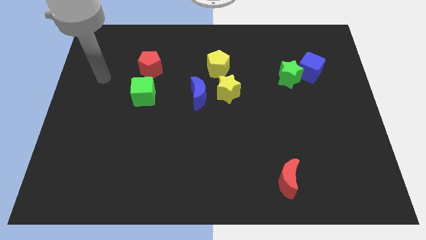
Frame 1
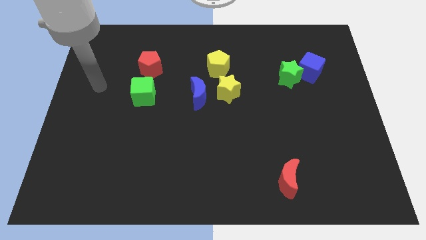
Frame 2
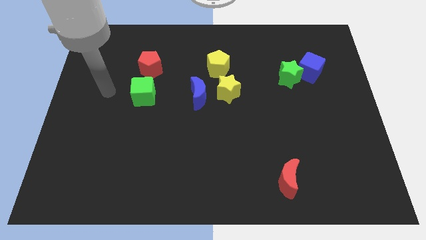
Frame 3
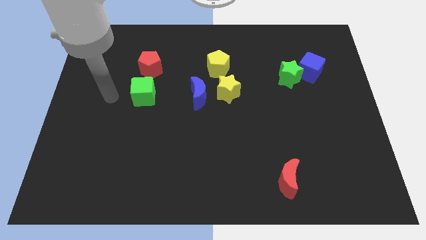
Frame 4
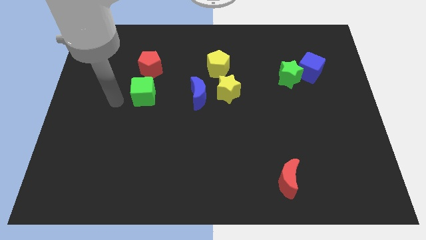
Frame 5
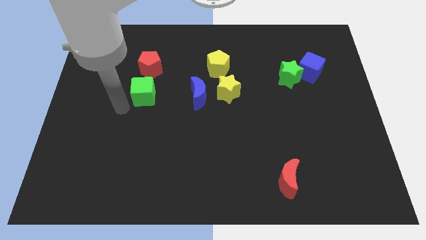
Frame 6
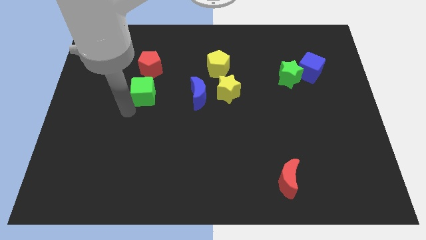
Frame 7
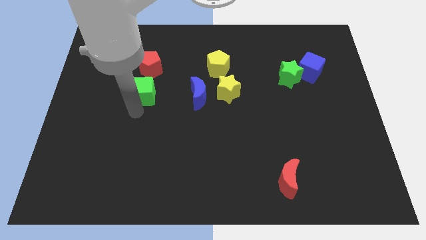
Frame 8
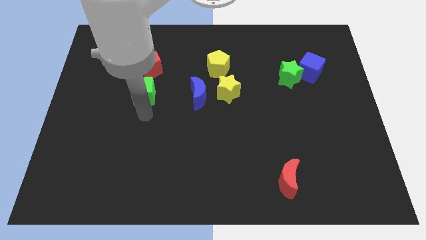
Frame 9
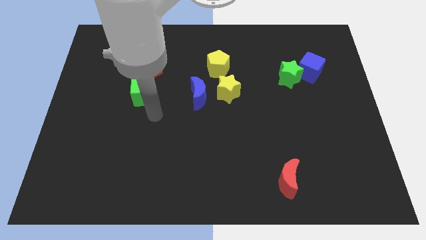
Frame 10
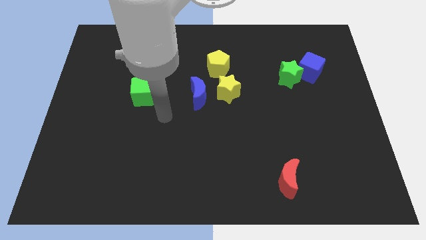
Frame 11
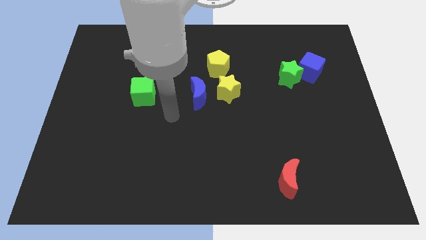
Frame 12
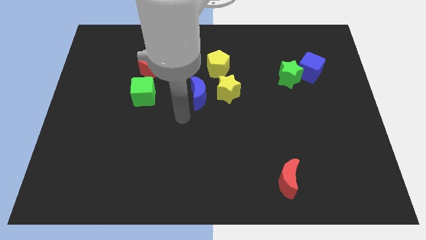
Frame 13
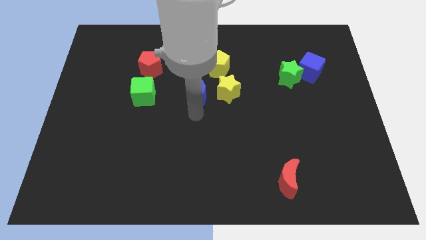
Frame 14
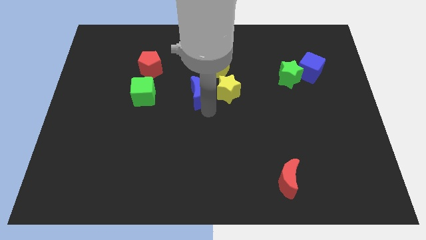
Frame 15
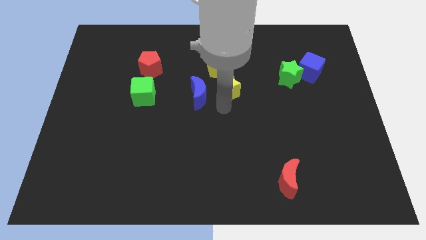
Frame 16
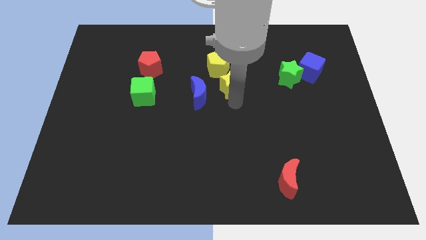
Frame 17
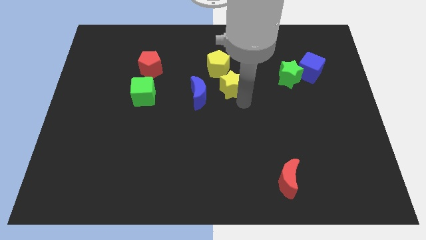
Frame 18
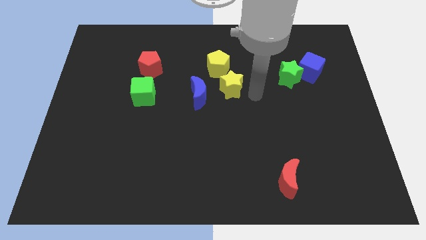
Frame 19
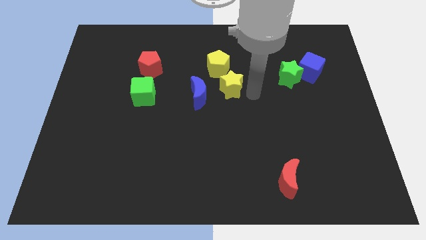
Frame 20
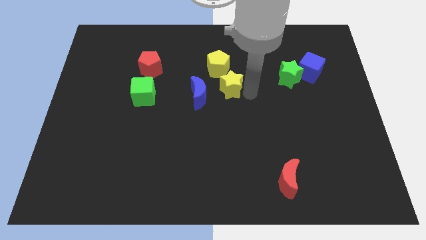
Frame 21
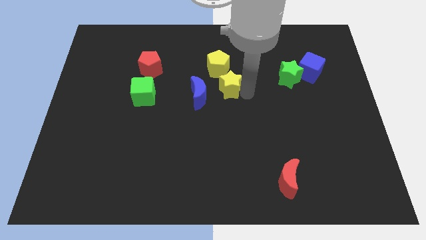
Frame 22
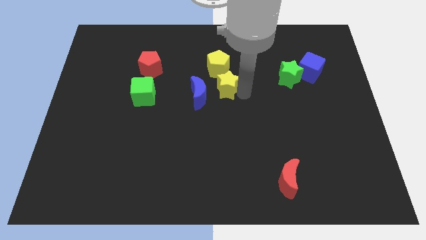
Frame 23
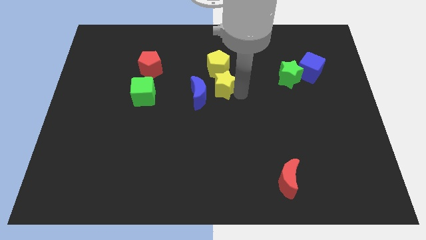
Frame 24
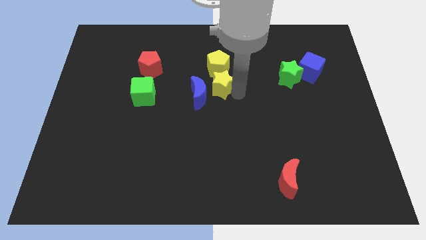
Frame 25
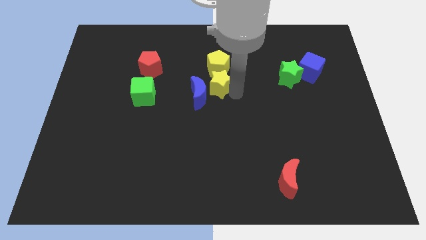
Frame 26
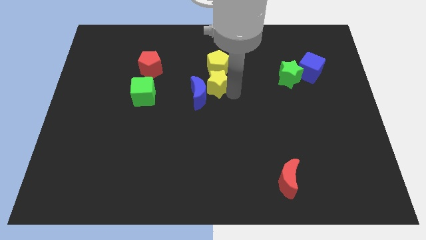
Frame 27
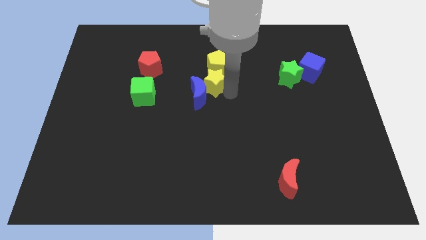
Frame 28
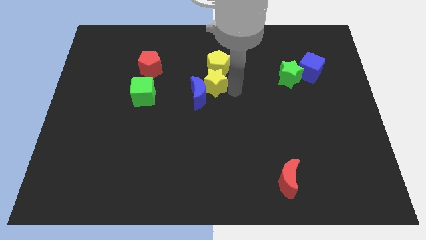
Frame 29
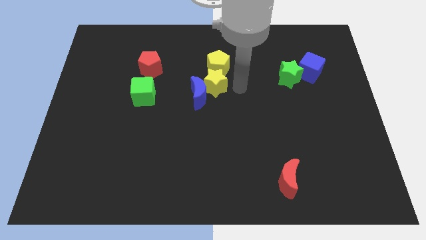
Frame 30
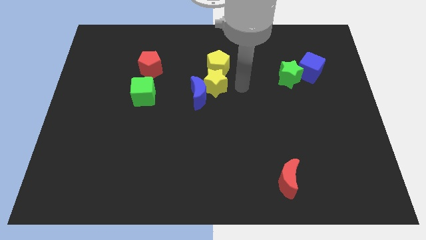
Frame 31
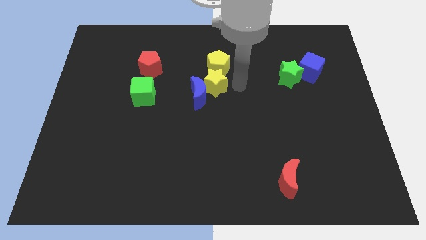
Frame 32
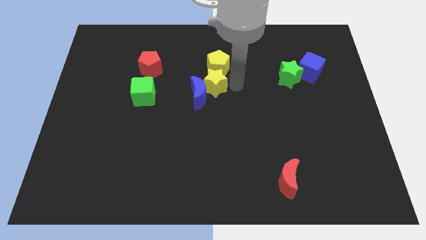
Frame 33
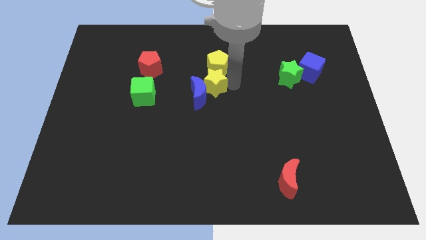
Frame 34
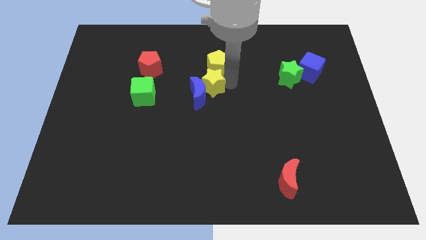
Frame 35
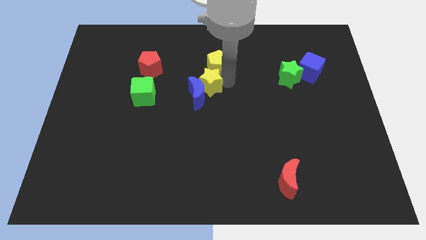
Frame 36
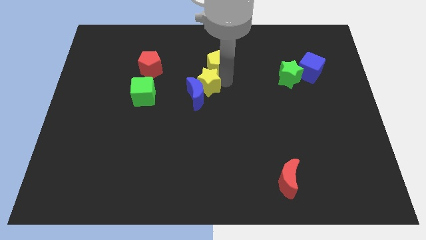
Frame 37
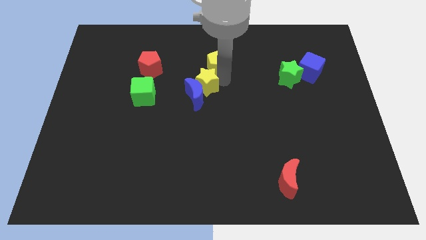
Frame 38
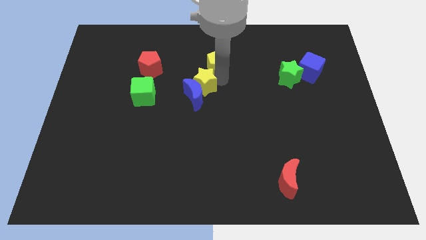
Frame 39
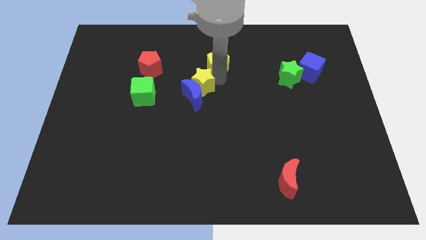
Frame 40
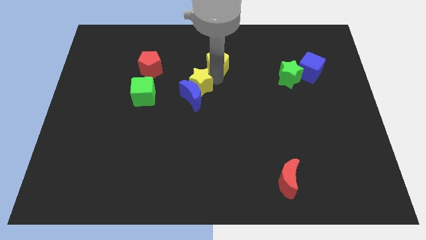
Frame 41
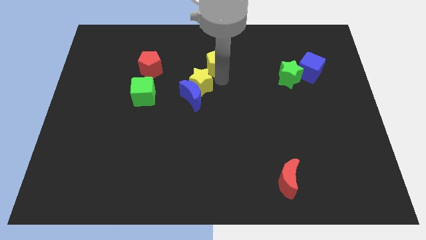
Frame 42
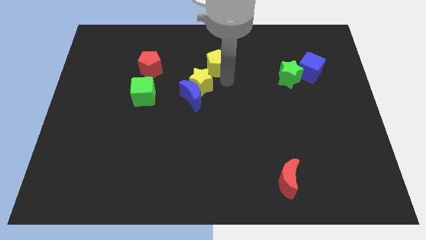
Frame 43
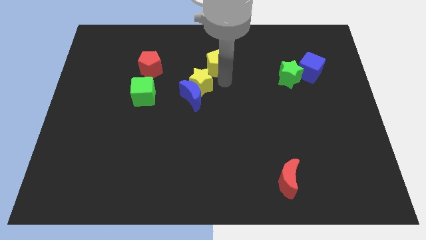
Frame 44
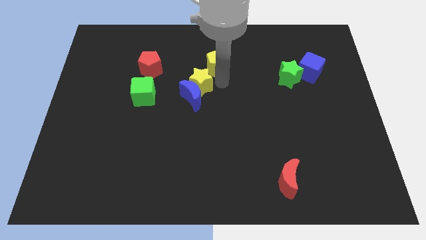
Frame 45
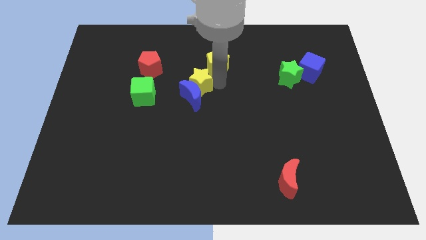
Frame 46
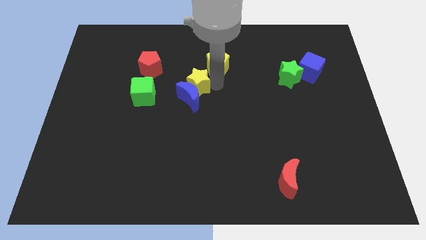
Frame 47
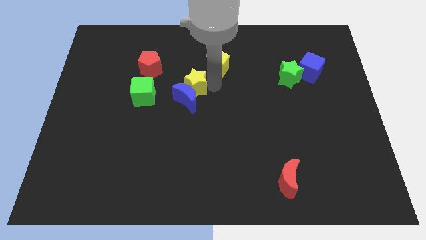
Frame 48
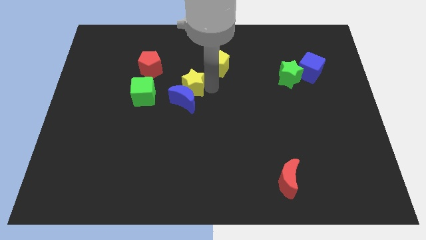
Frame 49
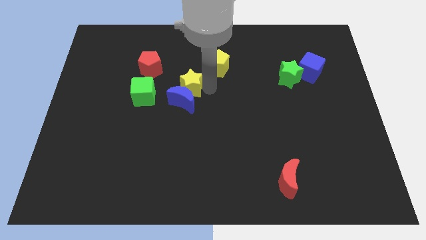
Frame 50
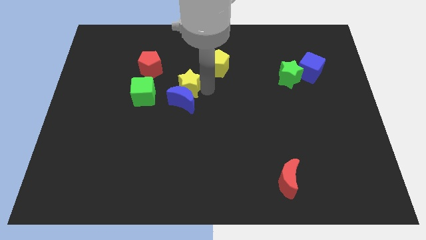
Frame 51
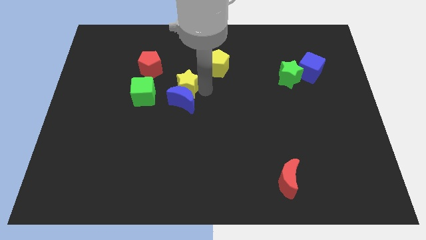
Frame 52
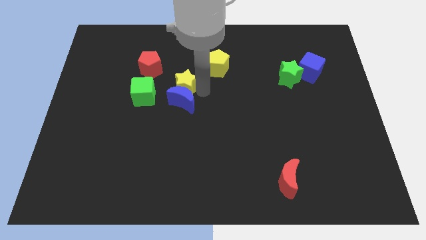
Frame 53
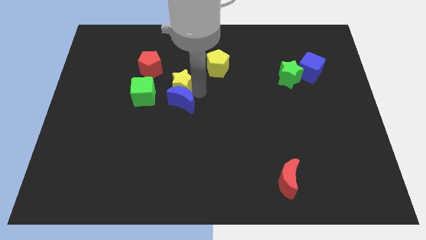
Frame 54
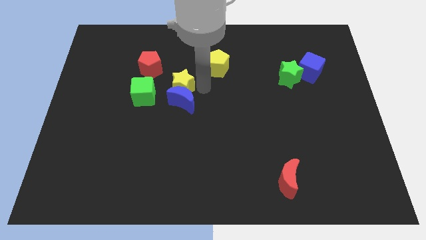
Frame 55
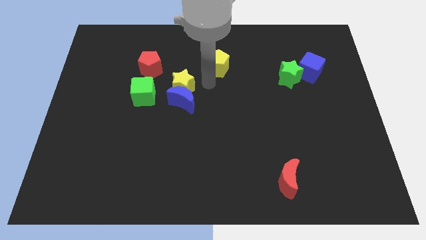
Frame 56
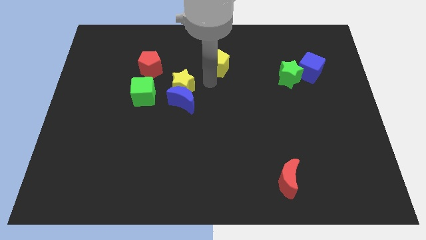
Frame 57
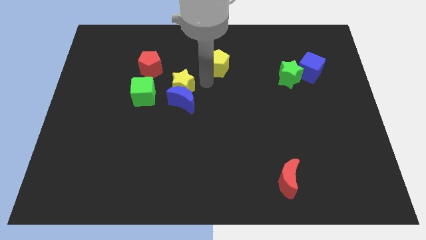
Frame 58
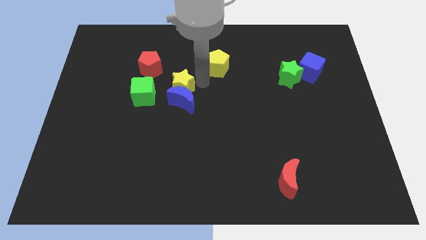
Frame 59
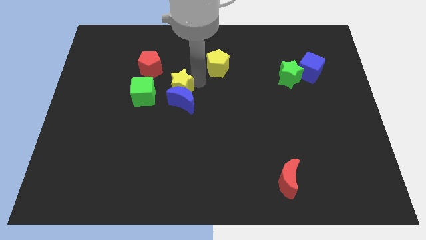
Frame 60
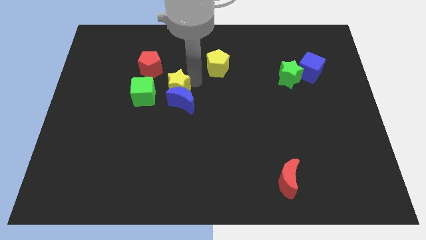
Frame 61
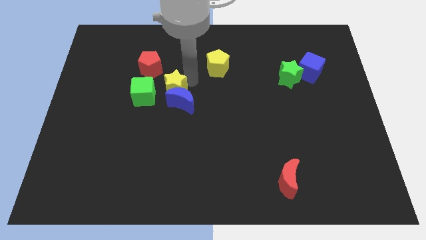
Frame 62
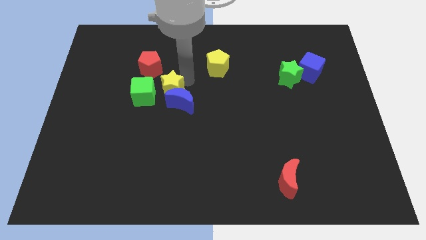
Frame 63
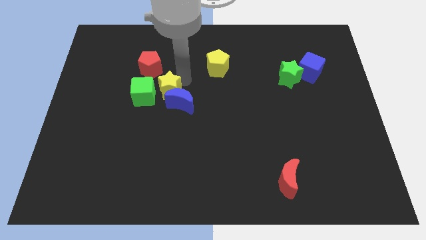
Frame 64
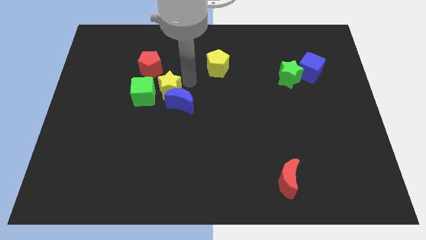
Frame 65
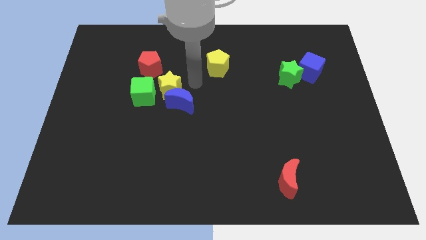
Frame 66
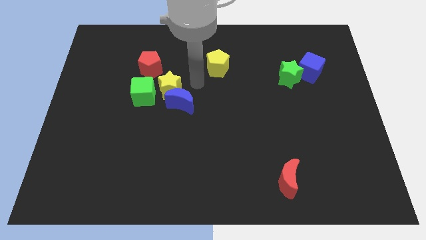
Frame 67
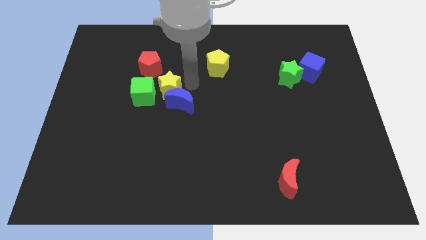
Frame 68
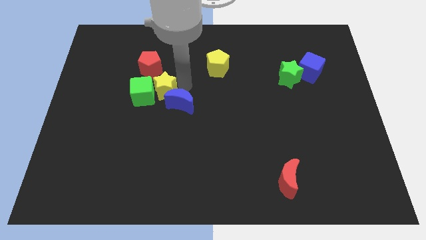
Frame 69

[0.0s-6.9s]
move the yellow star towards the green cube

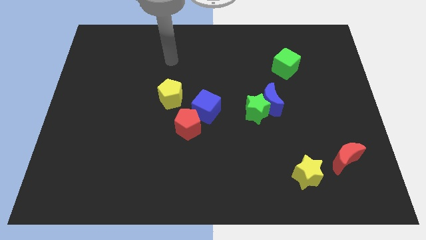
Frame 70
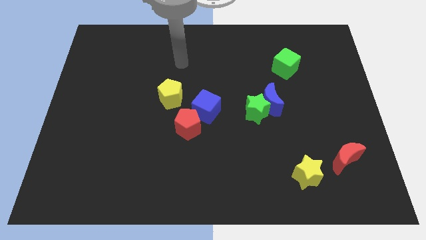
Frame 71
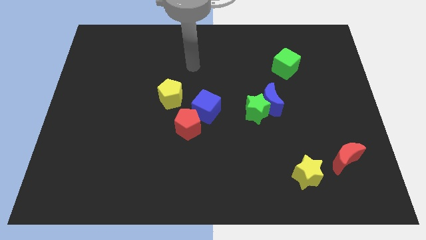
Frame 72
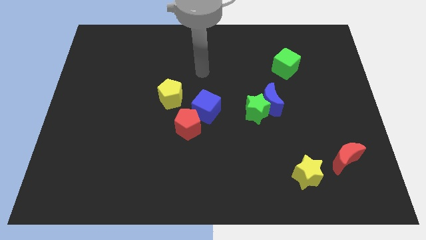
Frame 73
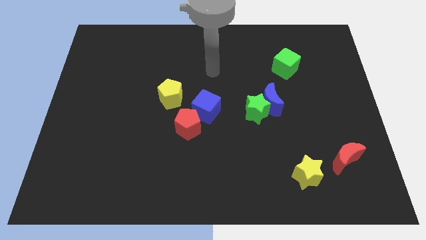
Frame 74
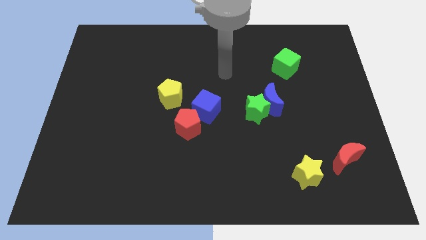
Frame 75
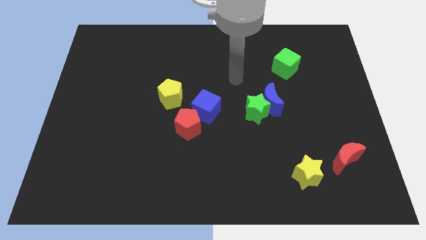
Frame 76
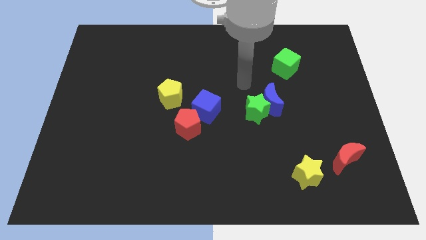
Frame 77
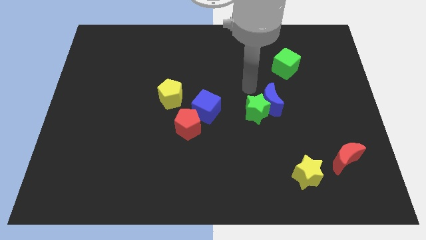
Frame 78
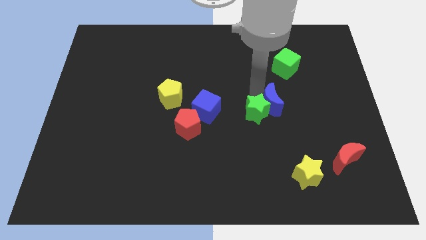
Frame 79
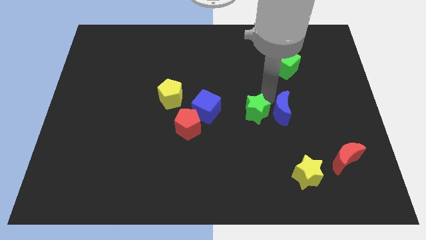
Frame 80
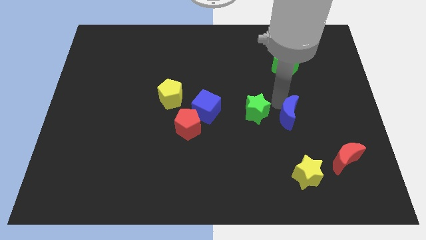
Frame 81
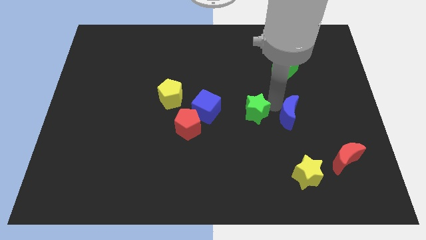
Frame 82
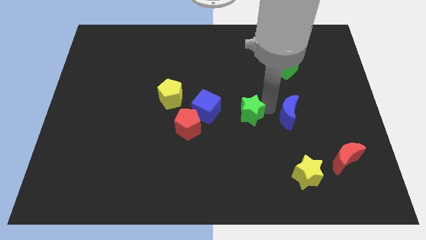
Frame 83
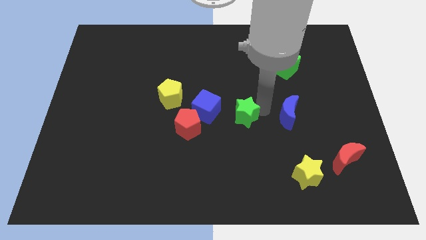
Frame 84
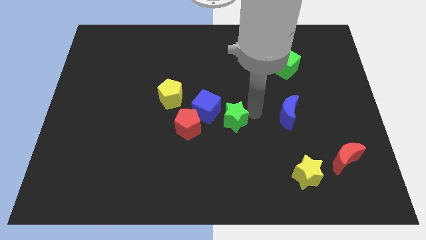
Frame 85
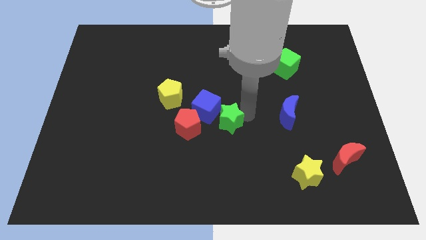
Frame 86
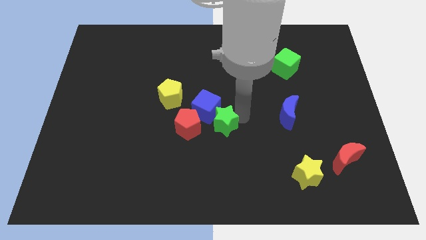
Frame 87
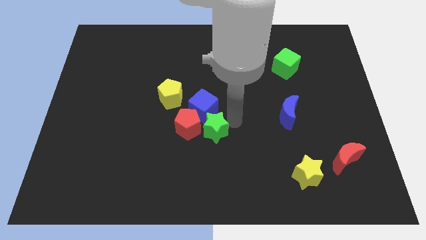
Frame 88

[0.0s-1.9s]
slide the green star towards the red pentagon
